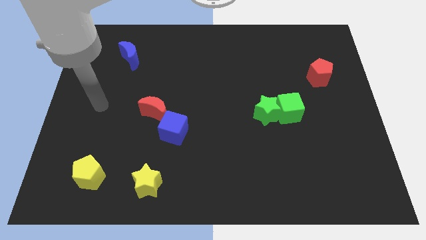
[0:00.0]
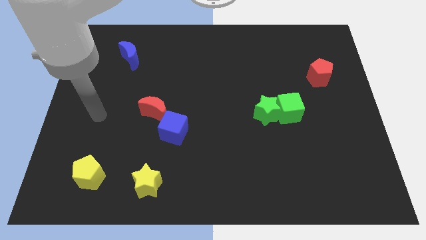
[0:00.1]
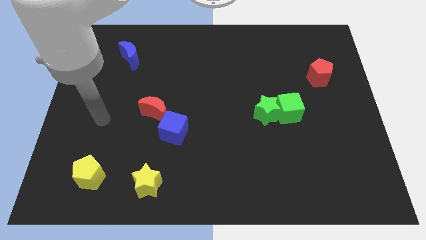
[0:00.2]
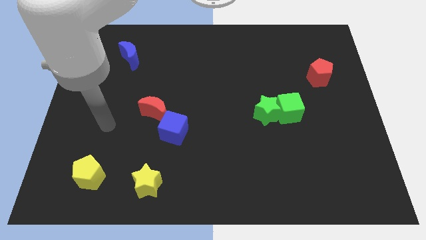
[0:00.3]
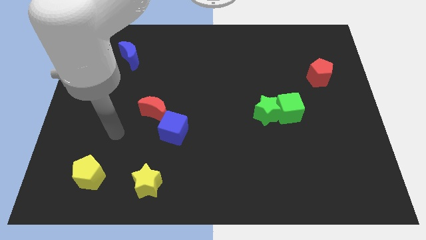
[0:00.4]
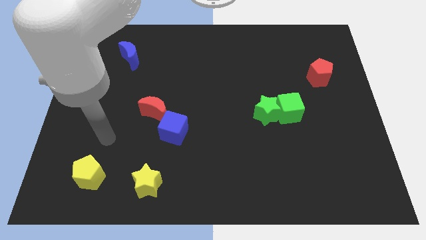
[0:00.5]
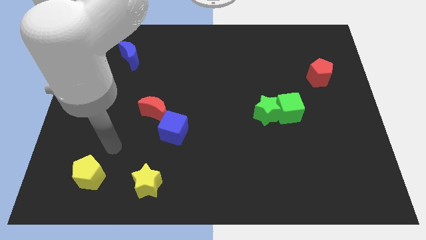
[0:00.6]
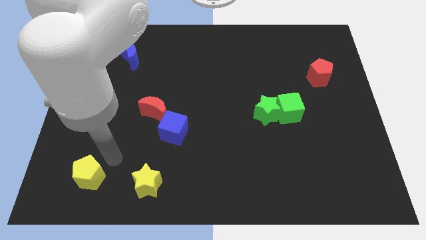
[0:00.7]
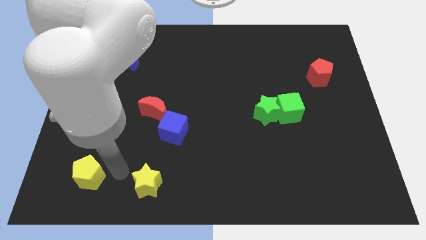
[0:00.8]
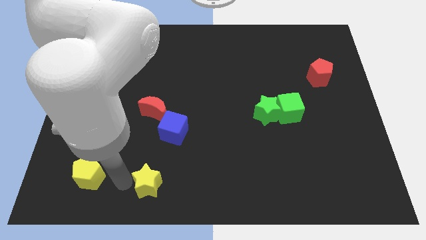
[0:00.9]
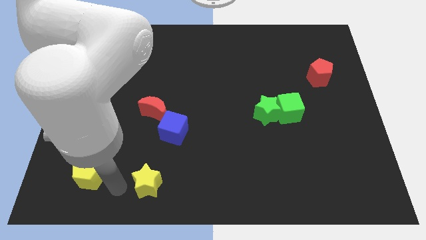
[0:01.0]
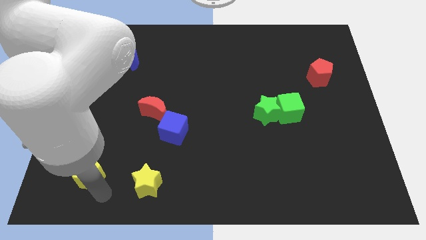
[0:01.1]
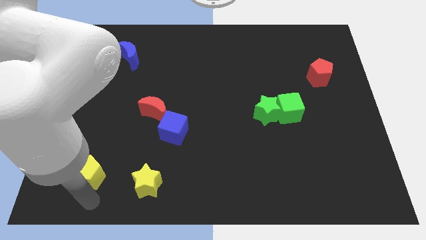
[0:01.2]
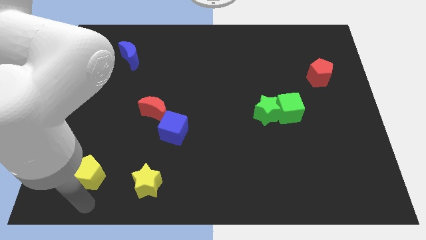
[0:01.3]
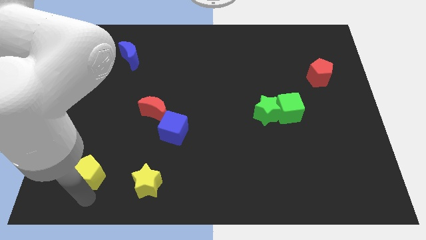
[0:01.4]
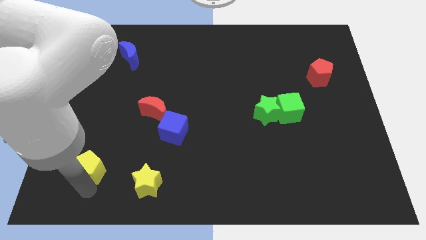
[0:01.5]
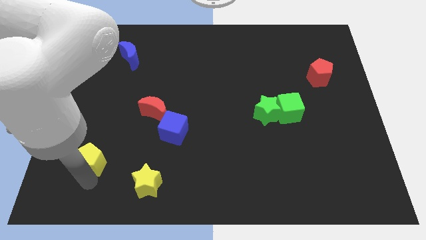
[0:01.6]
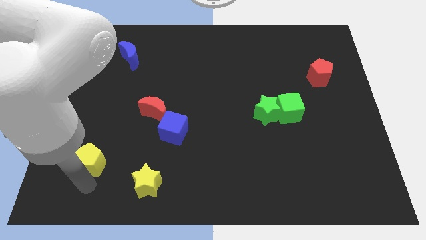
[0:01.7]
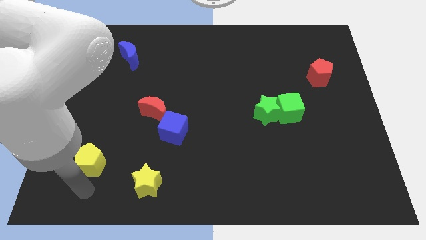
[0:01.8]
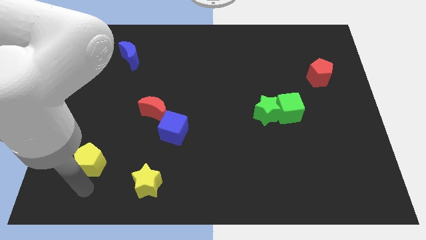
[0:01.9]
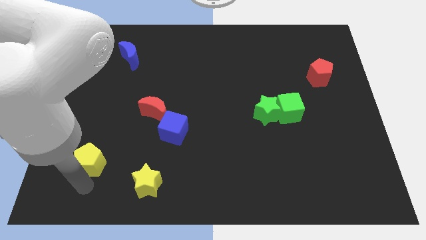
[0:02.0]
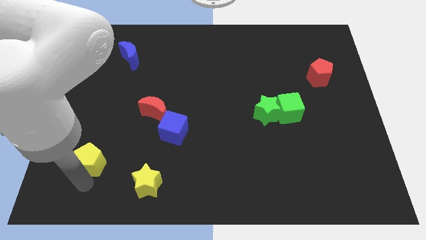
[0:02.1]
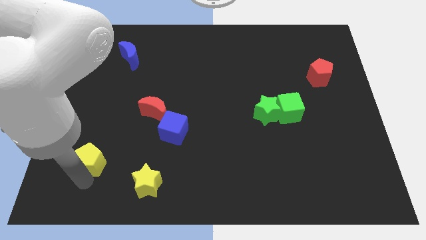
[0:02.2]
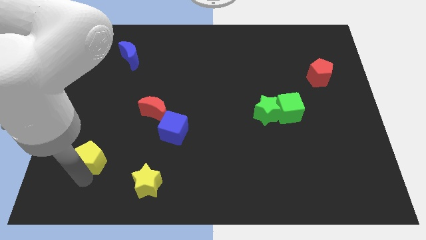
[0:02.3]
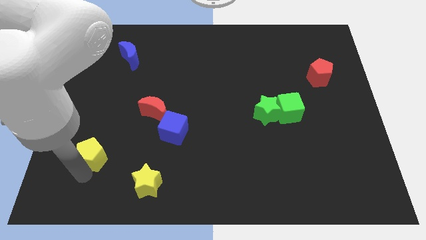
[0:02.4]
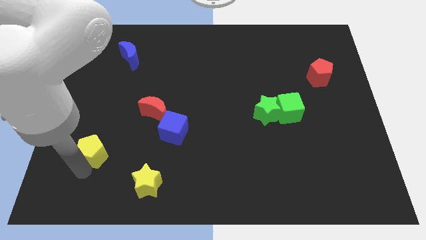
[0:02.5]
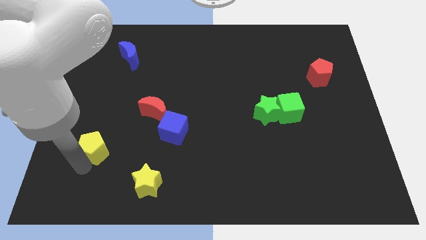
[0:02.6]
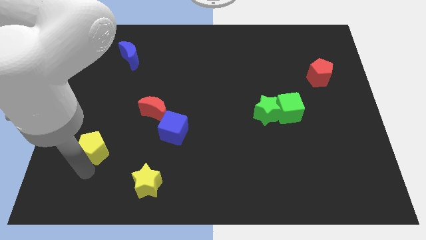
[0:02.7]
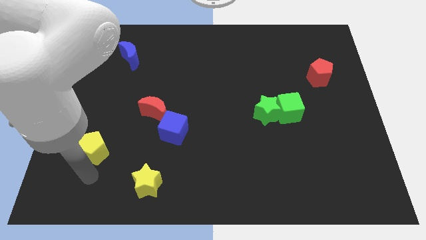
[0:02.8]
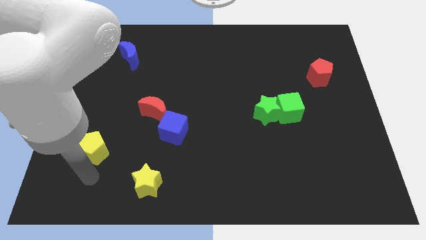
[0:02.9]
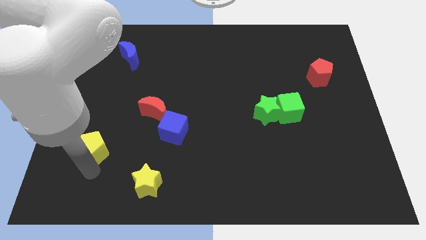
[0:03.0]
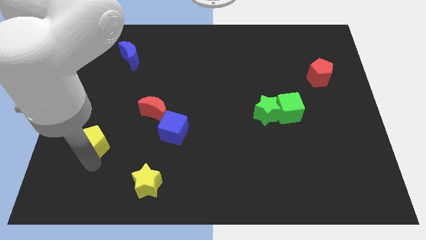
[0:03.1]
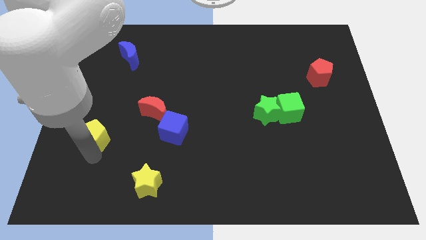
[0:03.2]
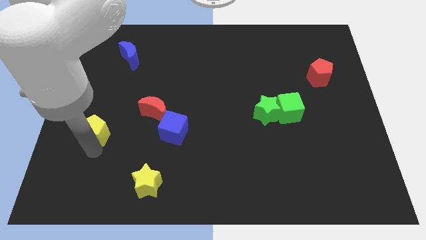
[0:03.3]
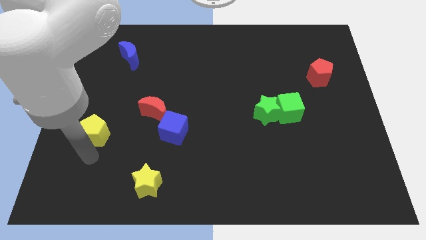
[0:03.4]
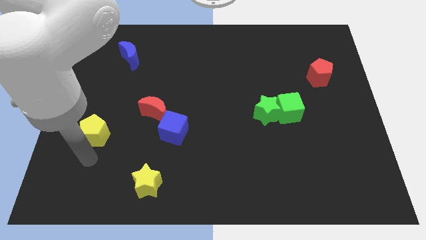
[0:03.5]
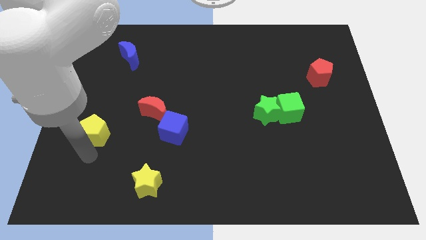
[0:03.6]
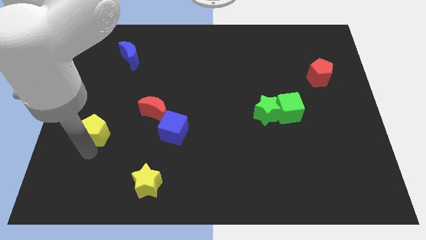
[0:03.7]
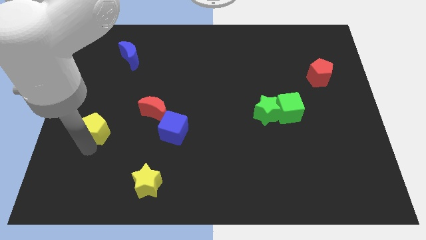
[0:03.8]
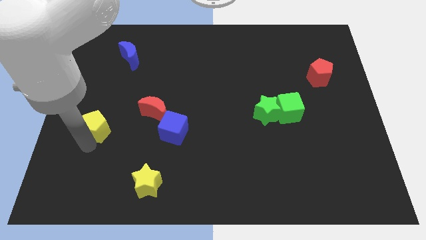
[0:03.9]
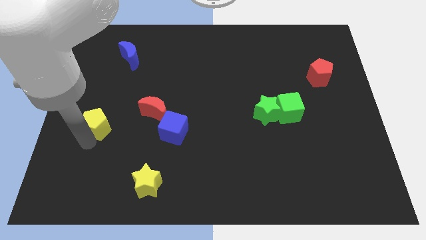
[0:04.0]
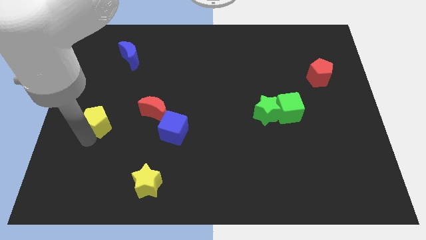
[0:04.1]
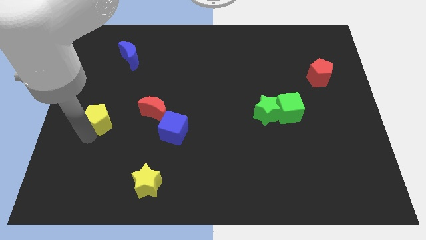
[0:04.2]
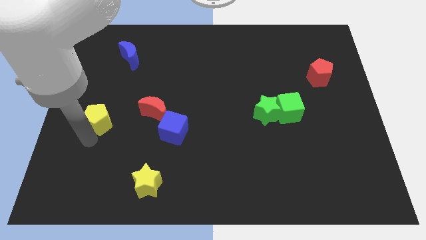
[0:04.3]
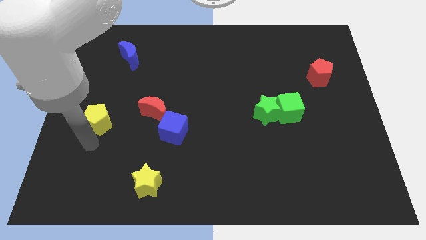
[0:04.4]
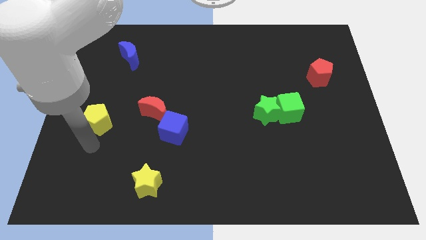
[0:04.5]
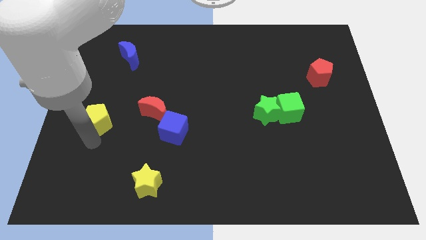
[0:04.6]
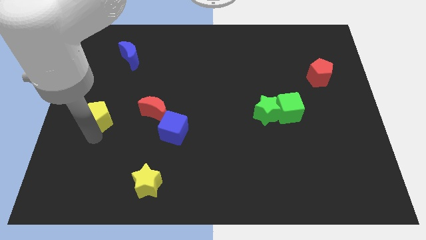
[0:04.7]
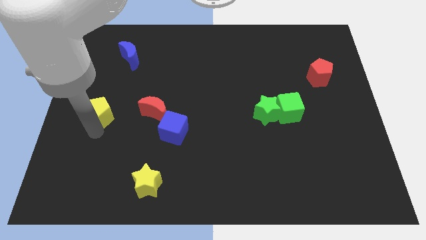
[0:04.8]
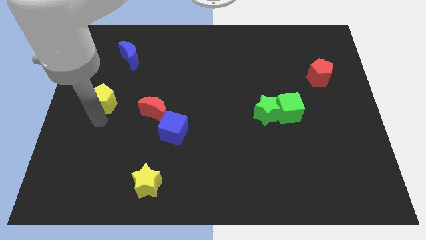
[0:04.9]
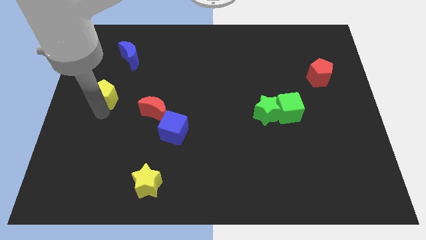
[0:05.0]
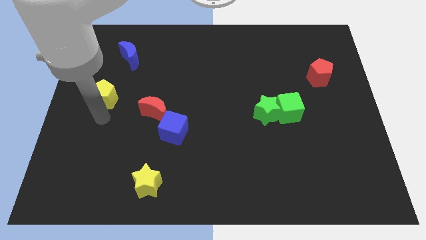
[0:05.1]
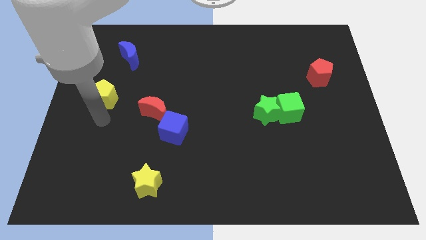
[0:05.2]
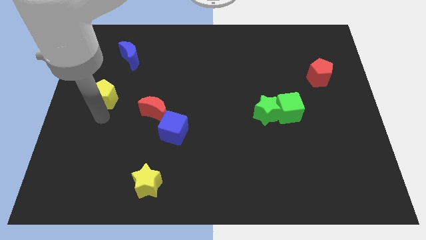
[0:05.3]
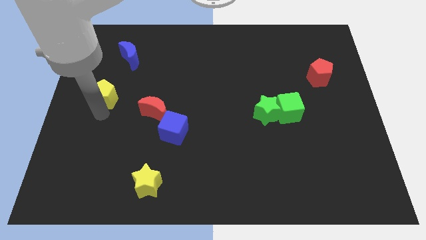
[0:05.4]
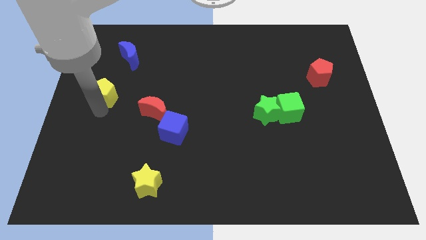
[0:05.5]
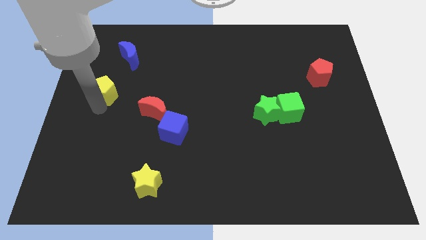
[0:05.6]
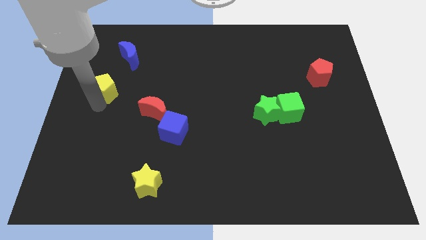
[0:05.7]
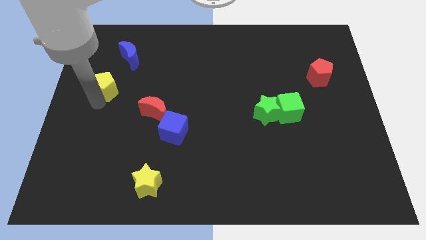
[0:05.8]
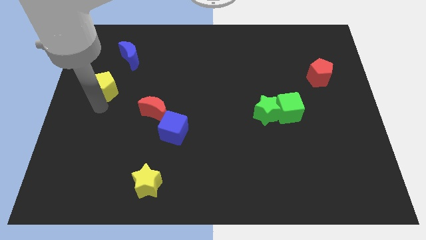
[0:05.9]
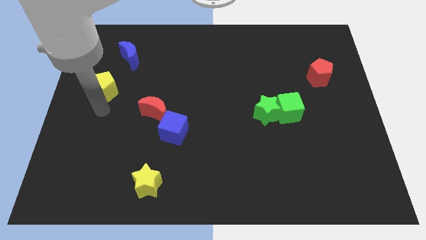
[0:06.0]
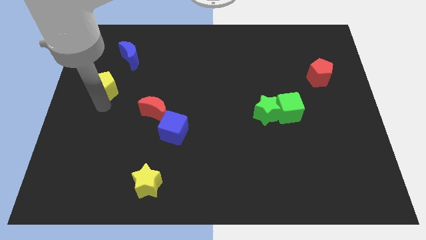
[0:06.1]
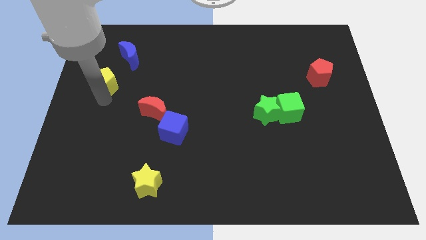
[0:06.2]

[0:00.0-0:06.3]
put the yellow pentagon diagonally down and to the left of the blue moon

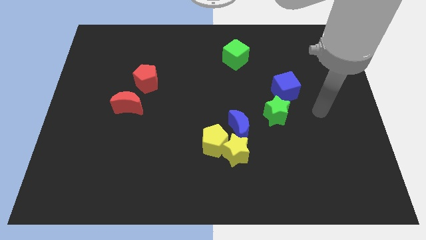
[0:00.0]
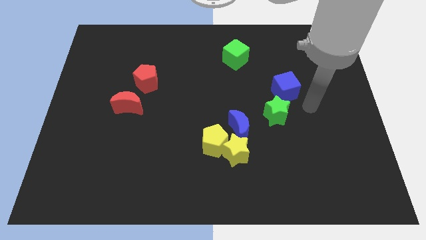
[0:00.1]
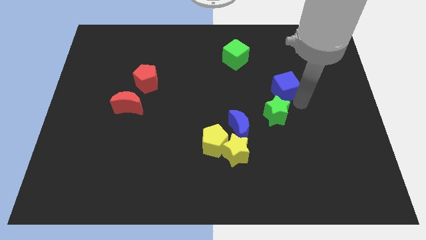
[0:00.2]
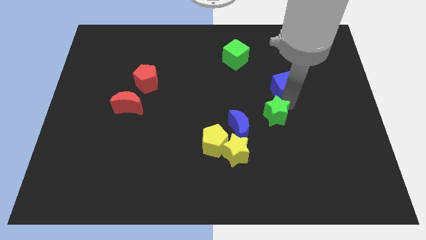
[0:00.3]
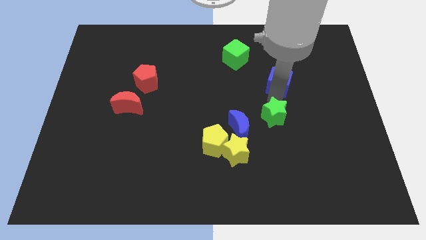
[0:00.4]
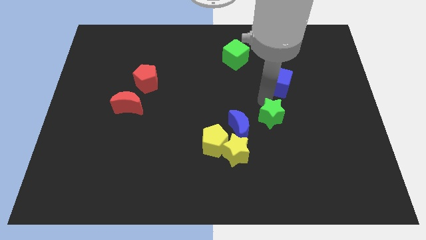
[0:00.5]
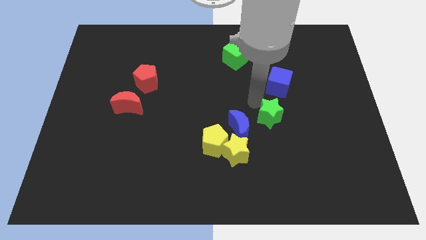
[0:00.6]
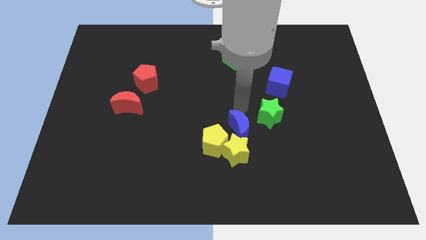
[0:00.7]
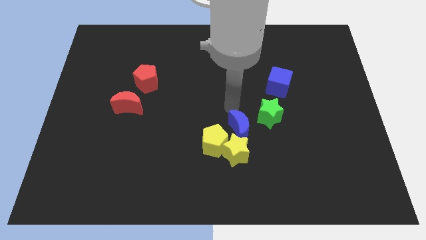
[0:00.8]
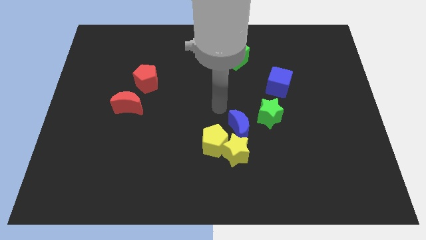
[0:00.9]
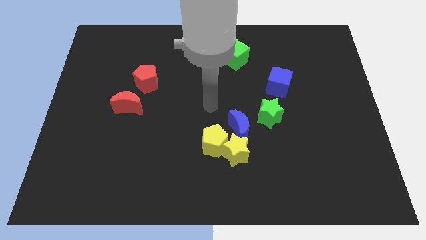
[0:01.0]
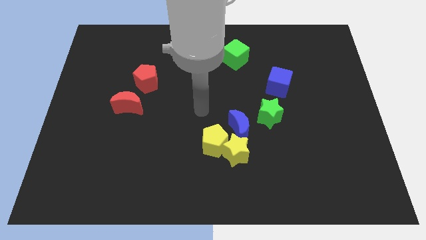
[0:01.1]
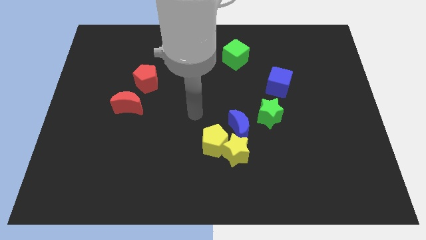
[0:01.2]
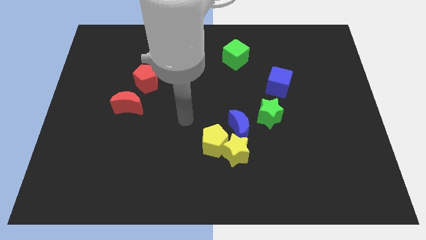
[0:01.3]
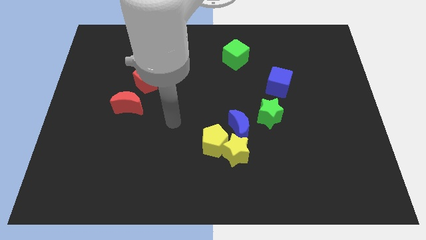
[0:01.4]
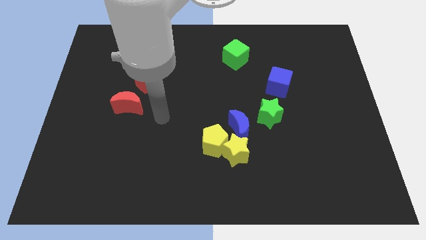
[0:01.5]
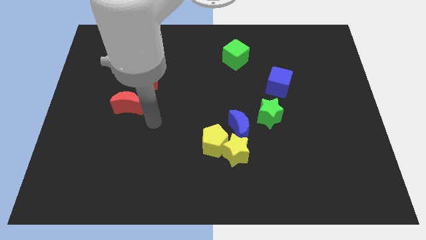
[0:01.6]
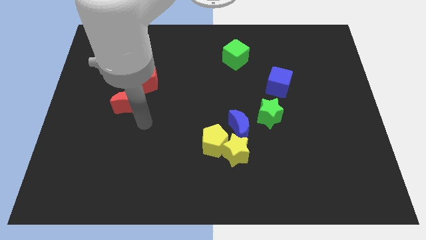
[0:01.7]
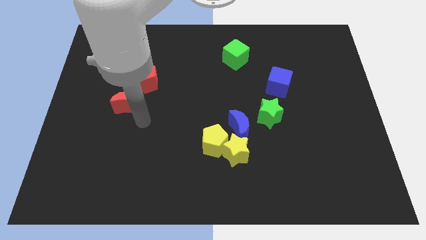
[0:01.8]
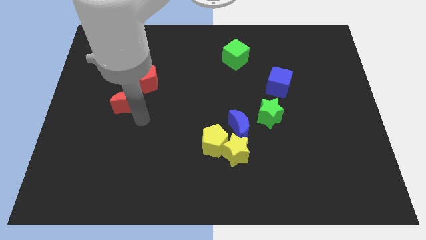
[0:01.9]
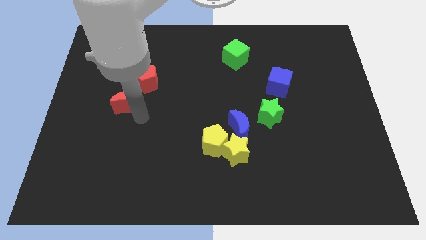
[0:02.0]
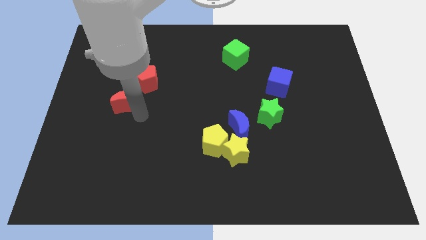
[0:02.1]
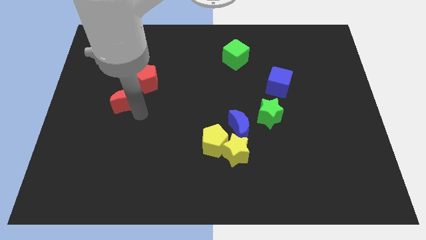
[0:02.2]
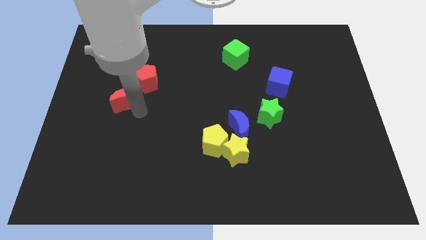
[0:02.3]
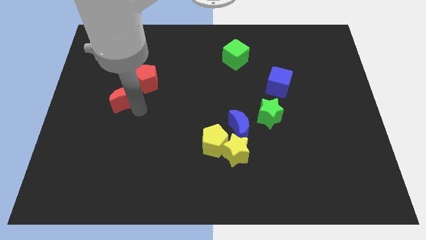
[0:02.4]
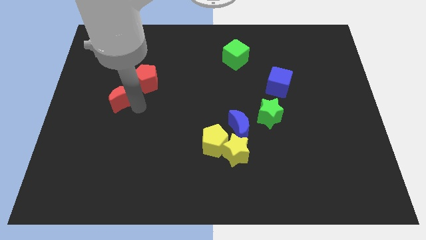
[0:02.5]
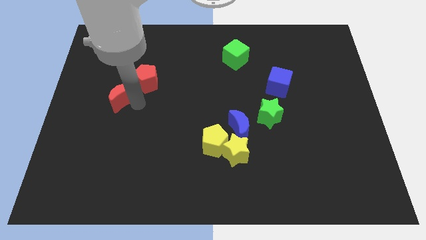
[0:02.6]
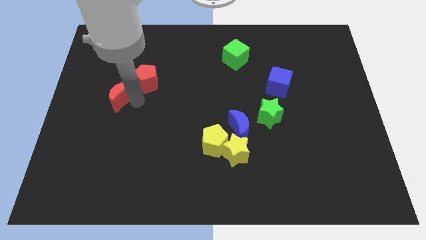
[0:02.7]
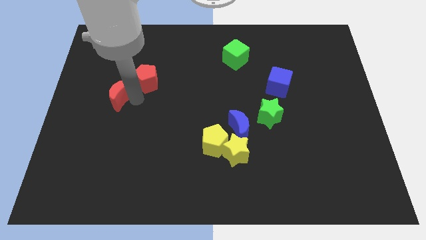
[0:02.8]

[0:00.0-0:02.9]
put the red moon just left of the red pentagon
